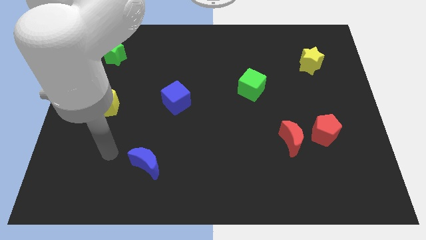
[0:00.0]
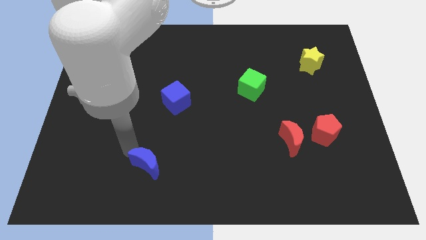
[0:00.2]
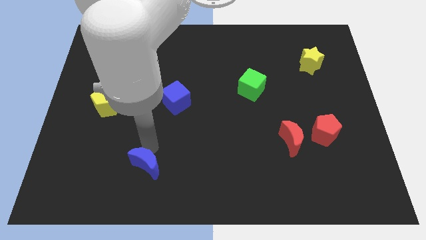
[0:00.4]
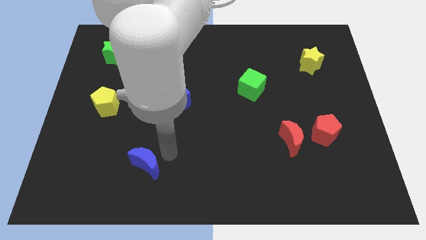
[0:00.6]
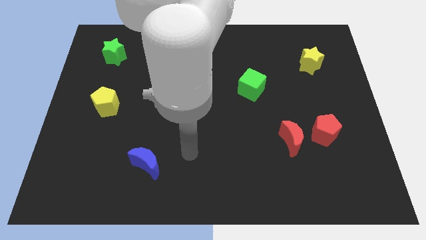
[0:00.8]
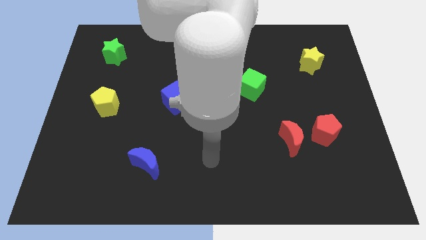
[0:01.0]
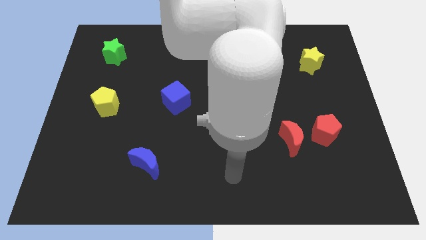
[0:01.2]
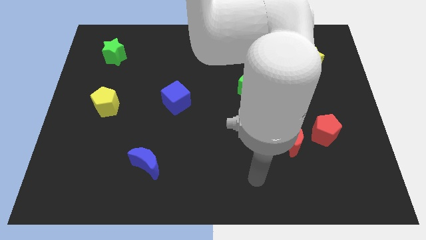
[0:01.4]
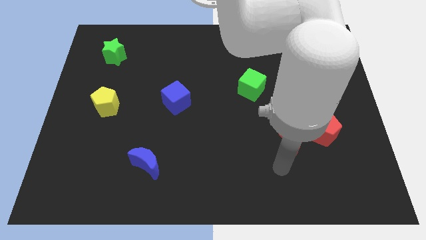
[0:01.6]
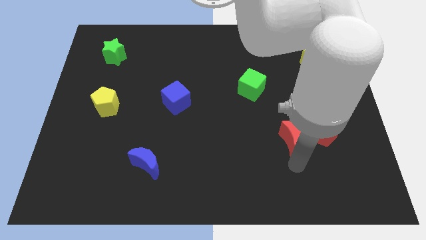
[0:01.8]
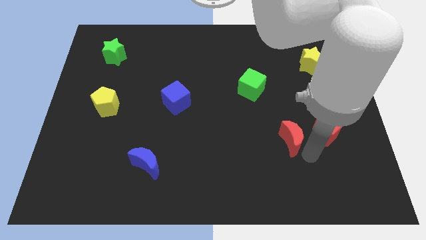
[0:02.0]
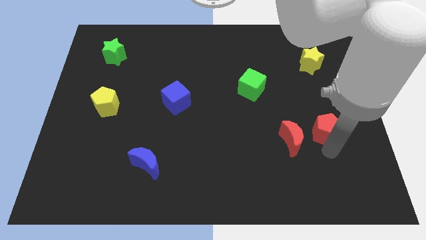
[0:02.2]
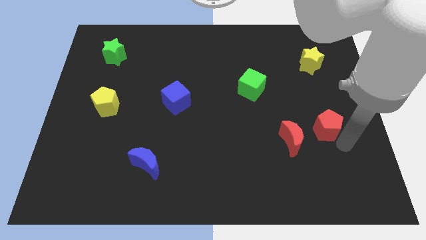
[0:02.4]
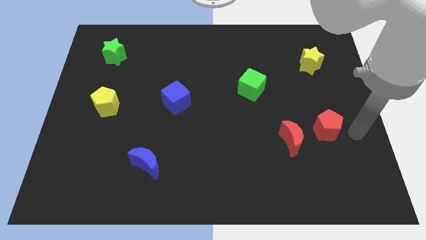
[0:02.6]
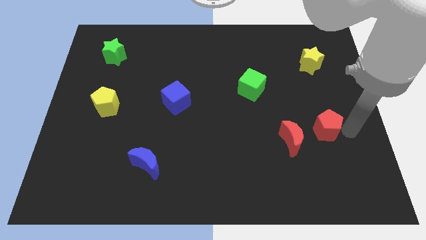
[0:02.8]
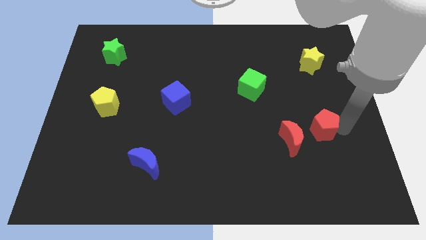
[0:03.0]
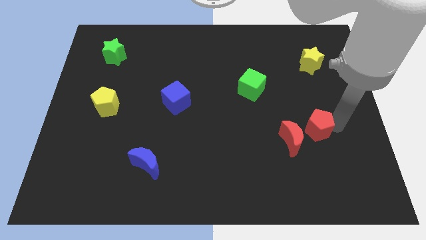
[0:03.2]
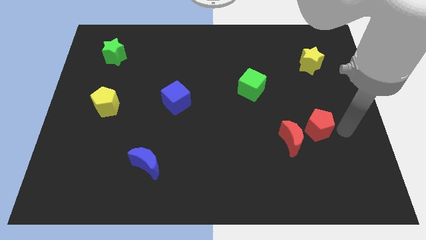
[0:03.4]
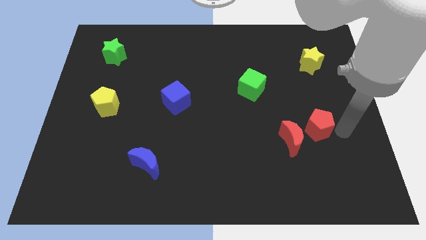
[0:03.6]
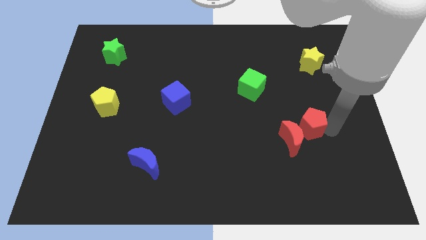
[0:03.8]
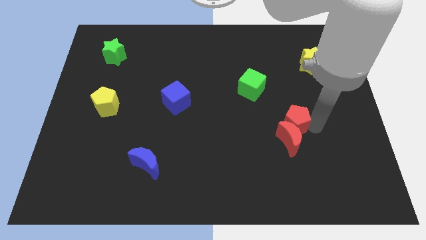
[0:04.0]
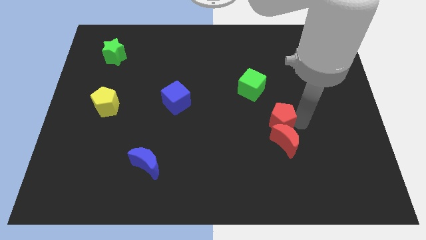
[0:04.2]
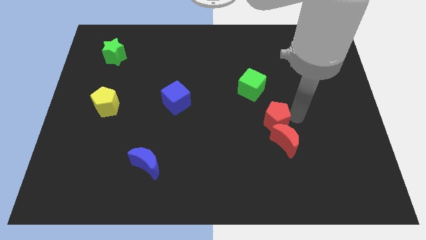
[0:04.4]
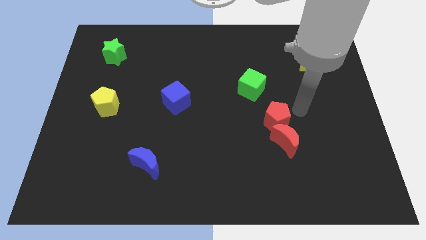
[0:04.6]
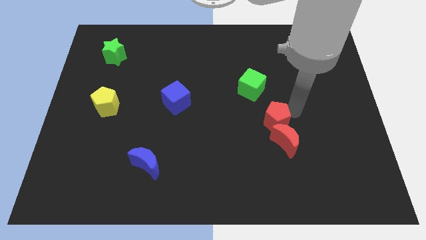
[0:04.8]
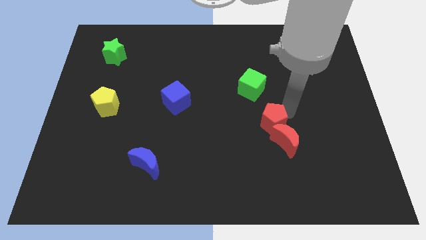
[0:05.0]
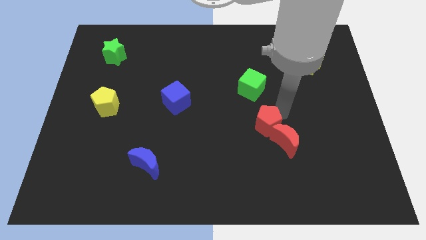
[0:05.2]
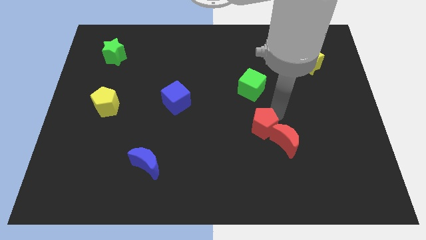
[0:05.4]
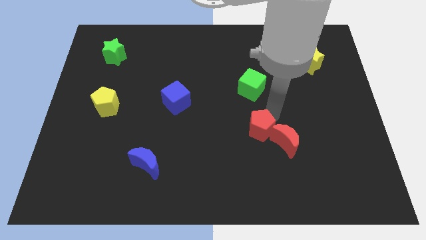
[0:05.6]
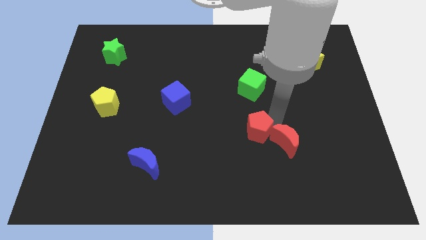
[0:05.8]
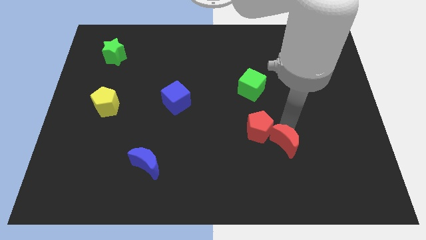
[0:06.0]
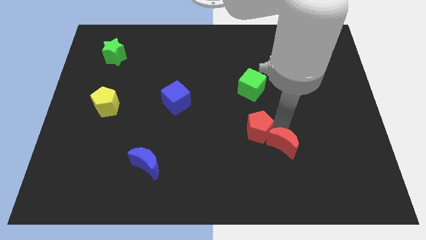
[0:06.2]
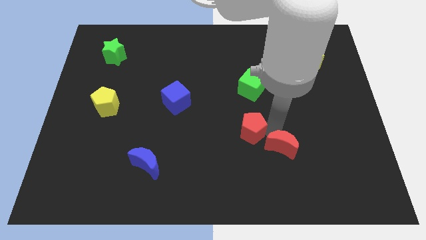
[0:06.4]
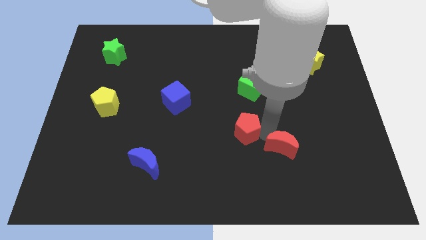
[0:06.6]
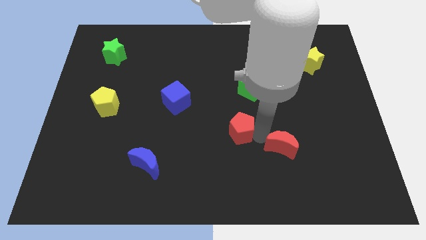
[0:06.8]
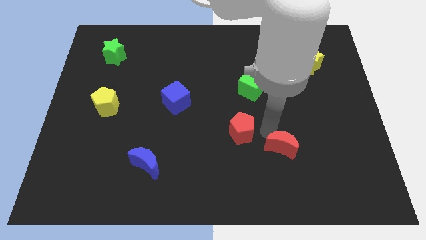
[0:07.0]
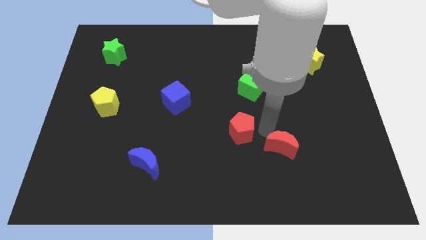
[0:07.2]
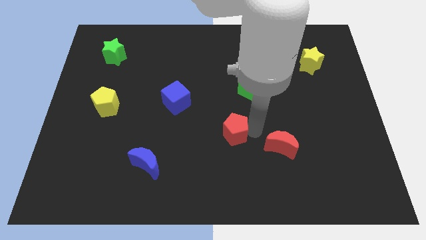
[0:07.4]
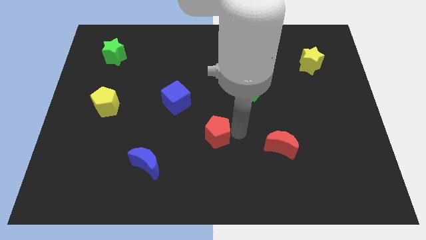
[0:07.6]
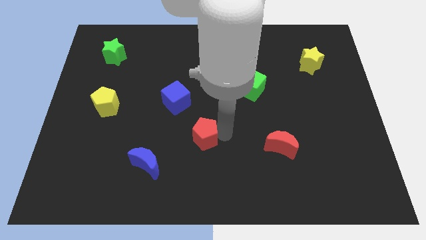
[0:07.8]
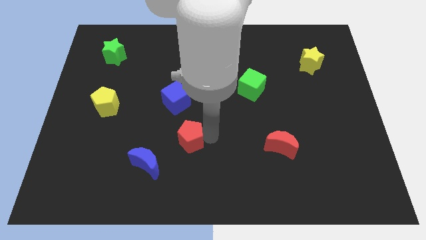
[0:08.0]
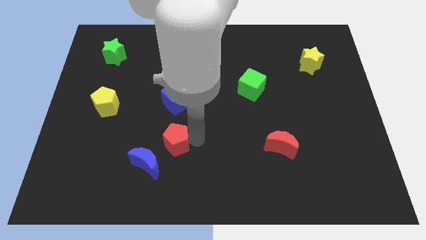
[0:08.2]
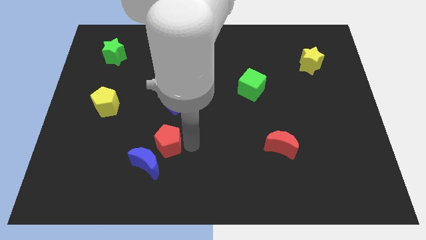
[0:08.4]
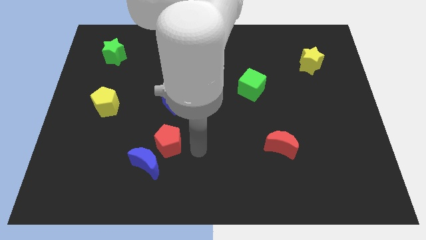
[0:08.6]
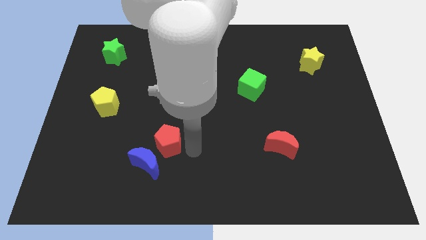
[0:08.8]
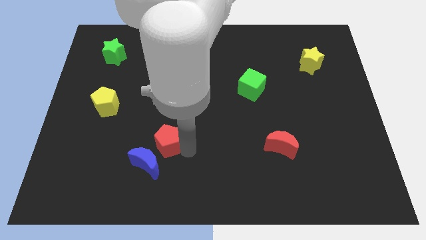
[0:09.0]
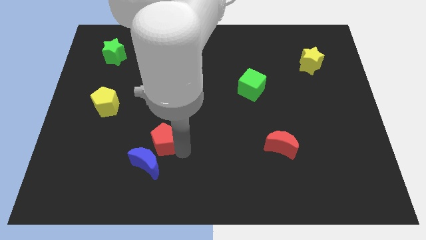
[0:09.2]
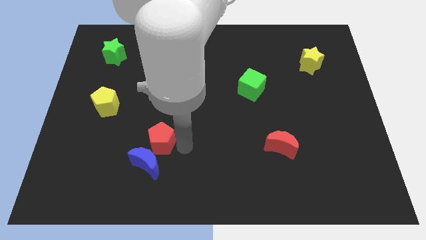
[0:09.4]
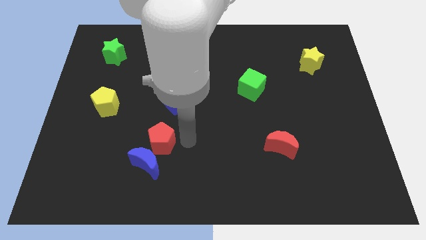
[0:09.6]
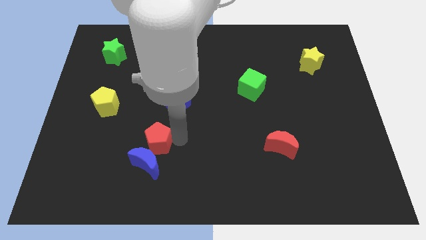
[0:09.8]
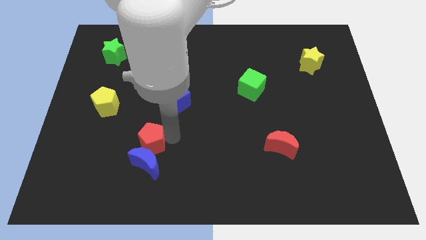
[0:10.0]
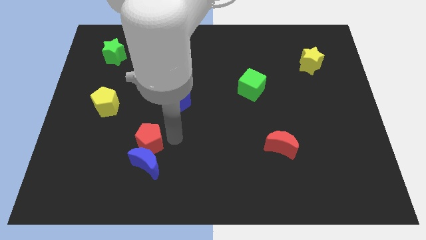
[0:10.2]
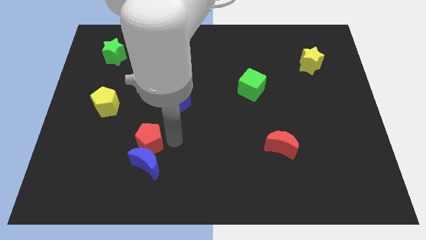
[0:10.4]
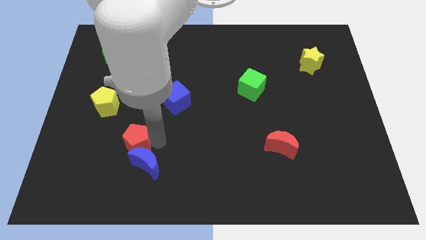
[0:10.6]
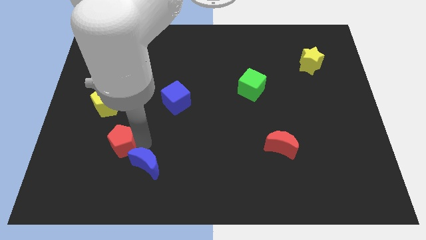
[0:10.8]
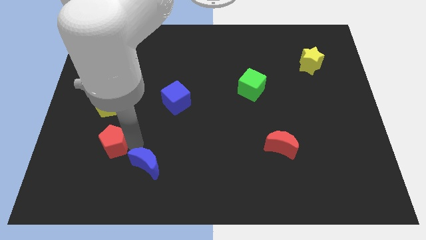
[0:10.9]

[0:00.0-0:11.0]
move the red pentagon to the bottom of the yellow pentagon

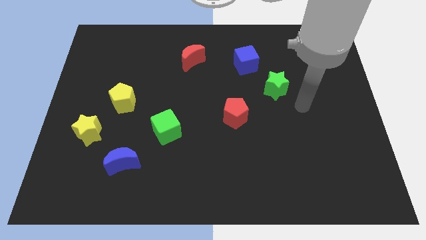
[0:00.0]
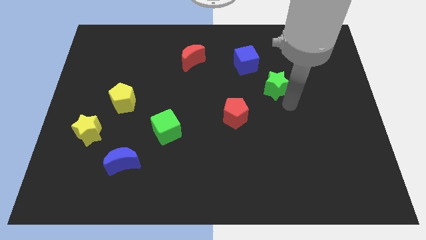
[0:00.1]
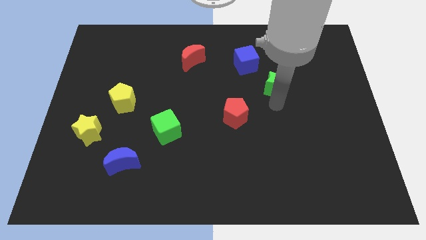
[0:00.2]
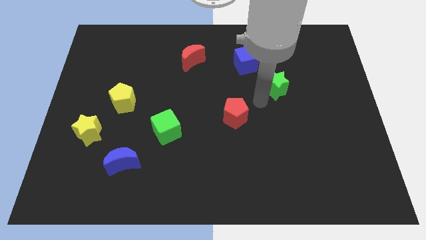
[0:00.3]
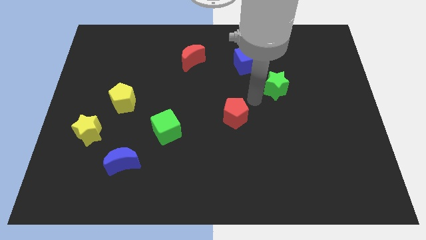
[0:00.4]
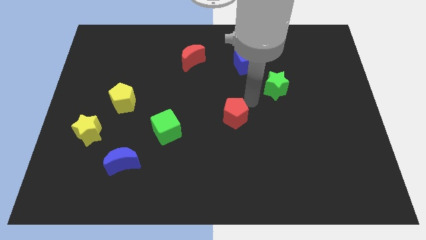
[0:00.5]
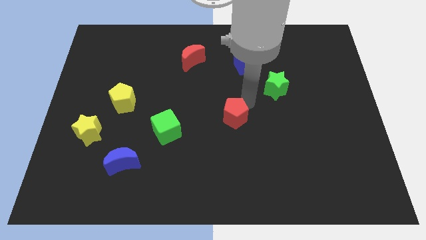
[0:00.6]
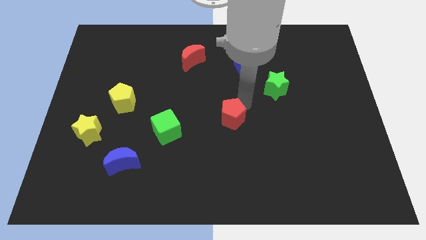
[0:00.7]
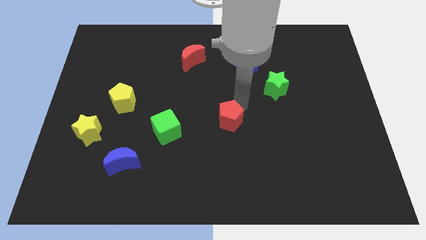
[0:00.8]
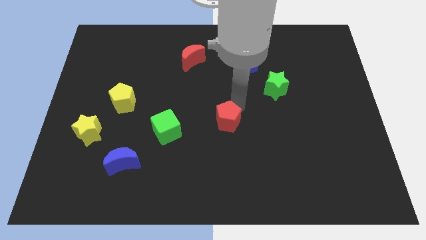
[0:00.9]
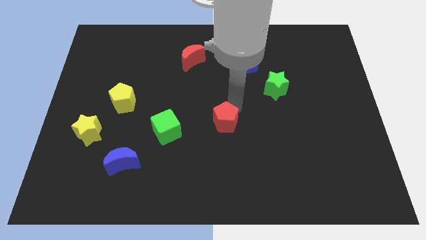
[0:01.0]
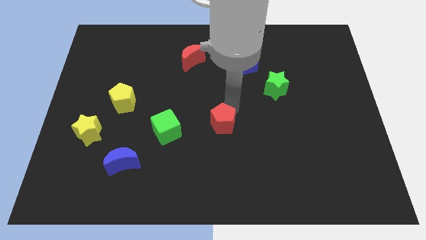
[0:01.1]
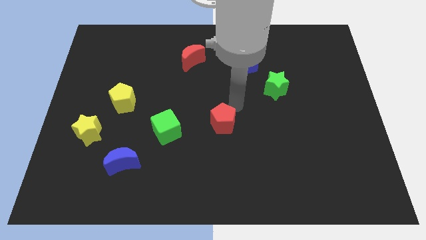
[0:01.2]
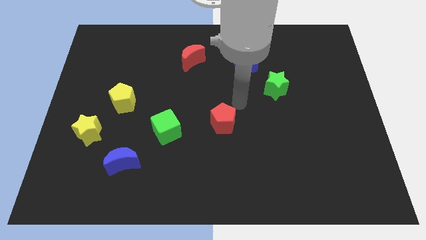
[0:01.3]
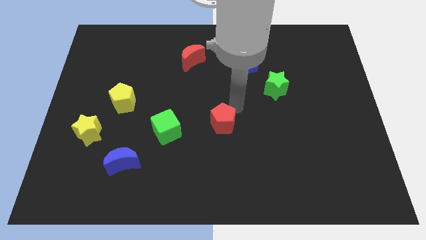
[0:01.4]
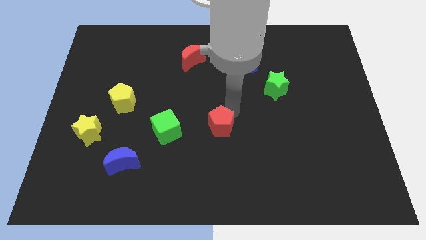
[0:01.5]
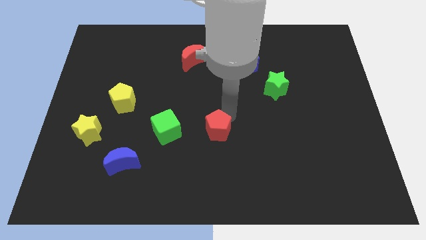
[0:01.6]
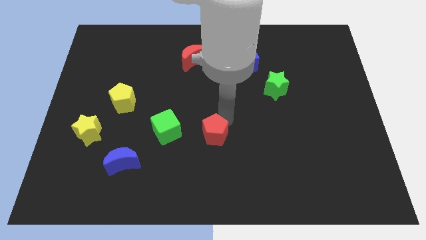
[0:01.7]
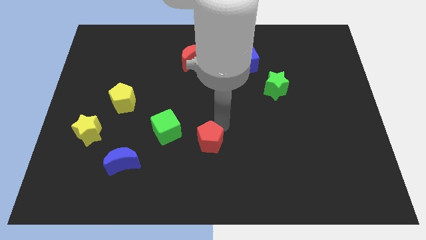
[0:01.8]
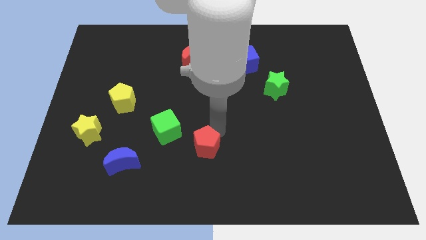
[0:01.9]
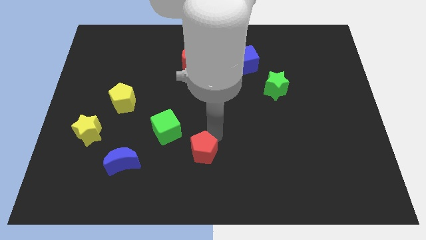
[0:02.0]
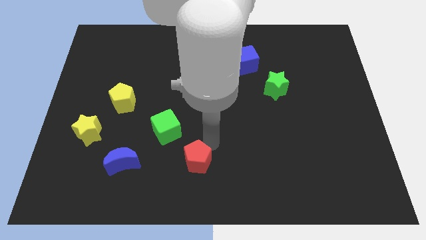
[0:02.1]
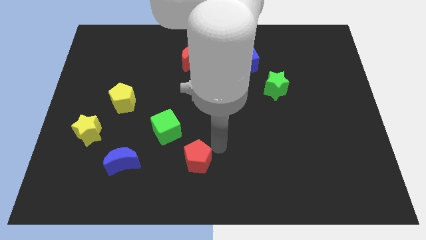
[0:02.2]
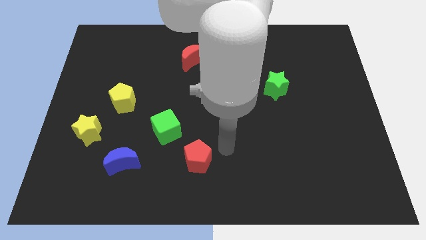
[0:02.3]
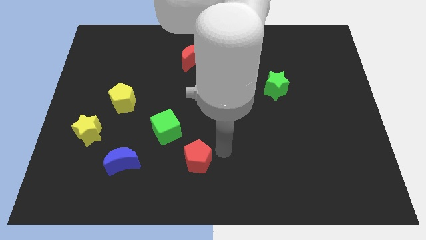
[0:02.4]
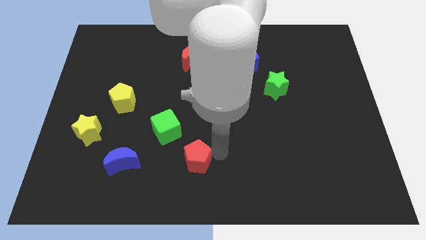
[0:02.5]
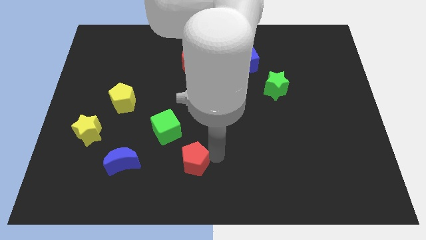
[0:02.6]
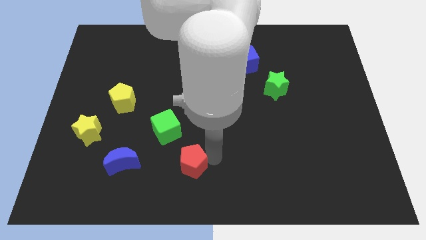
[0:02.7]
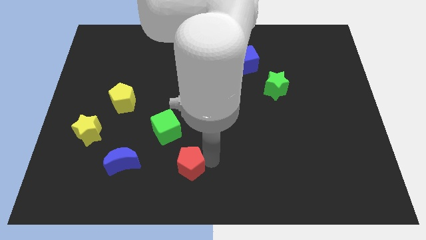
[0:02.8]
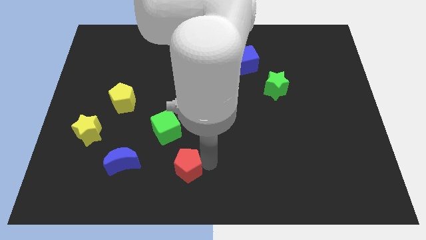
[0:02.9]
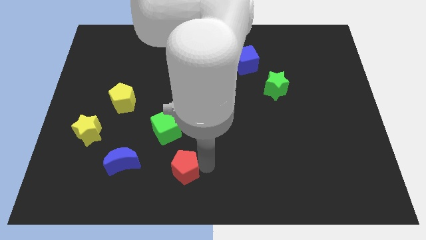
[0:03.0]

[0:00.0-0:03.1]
push the red pentagon to the bottom of the green cube

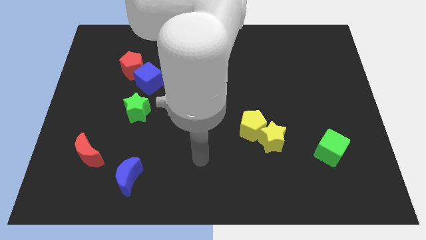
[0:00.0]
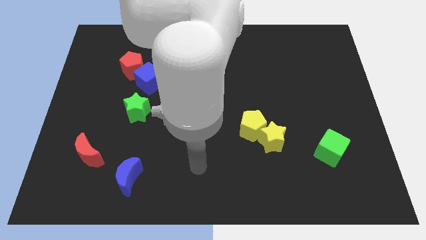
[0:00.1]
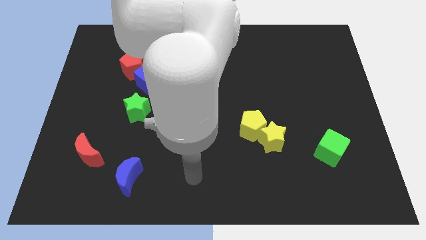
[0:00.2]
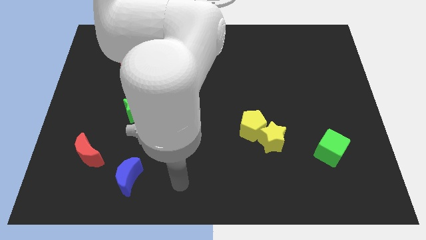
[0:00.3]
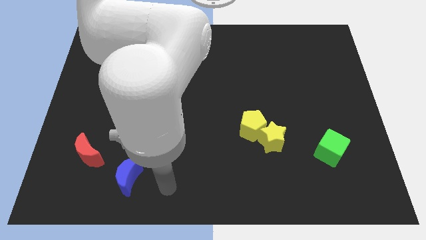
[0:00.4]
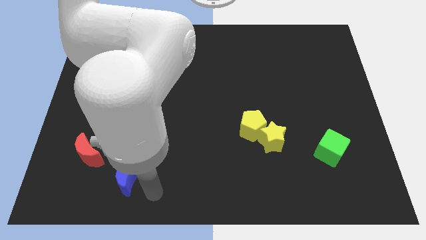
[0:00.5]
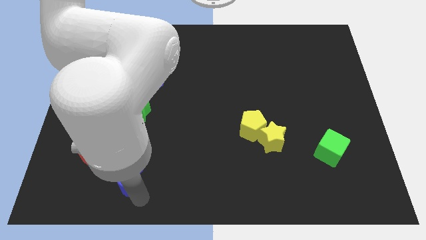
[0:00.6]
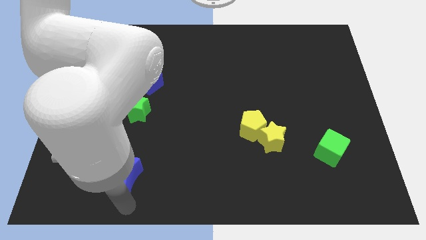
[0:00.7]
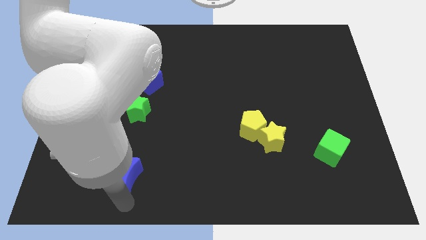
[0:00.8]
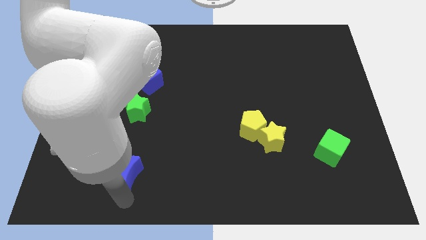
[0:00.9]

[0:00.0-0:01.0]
slide the blue moon to the bottom of the green star
